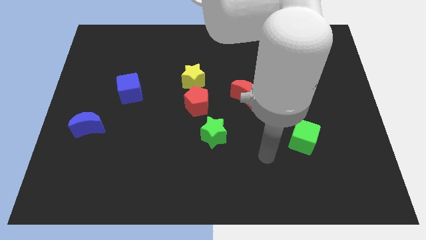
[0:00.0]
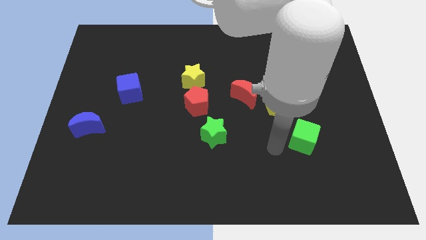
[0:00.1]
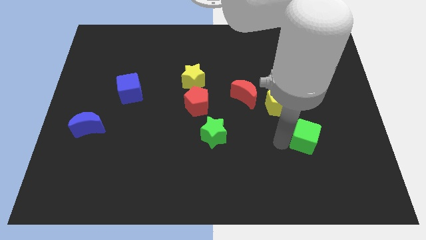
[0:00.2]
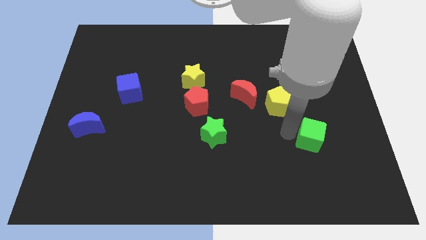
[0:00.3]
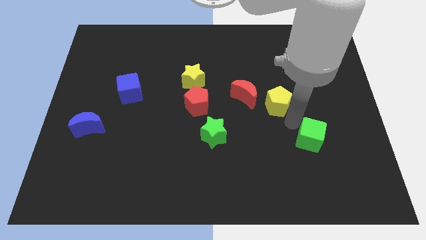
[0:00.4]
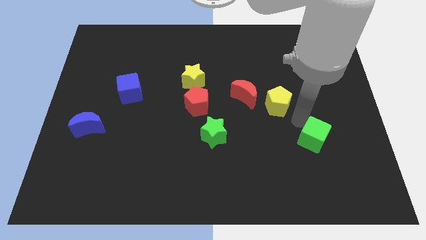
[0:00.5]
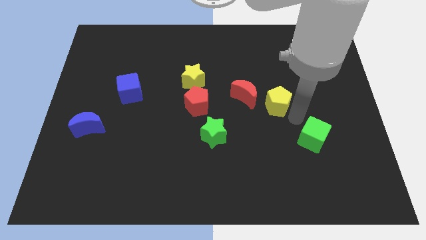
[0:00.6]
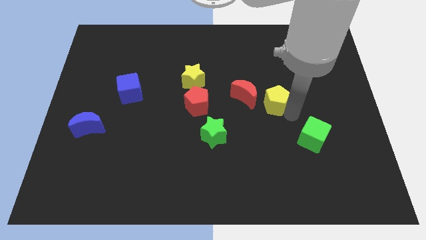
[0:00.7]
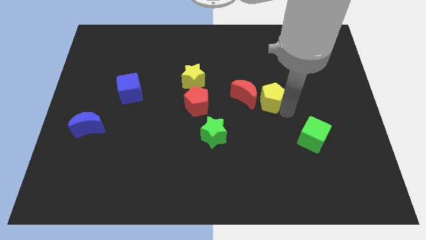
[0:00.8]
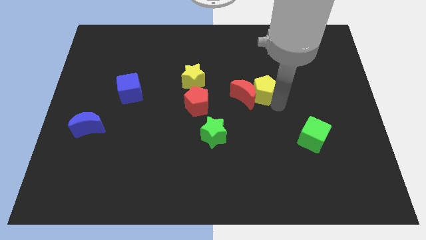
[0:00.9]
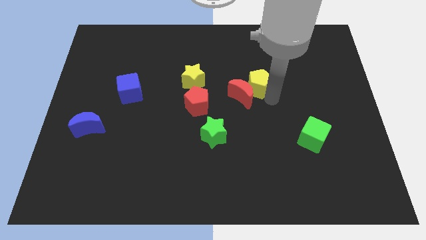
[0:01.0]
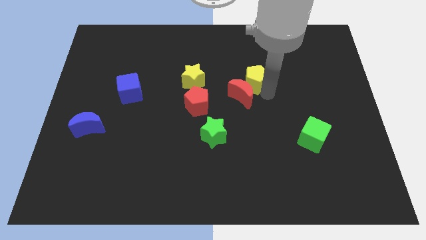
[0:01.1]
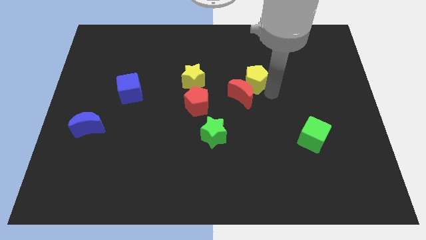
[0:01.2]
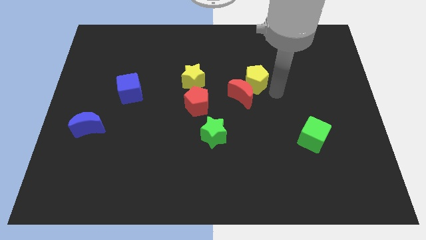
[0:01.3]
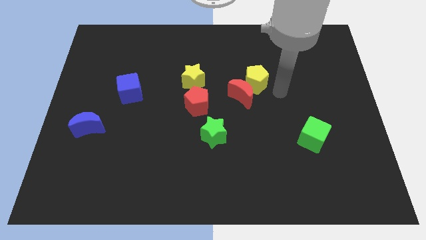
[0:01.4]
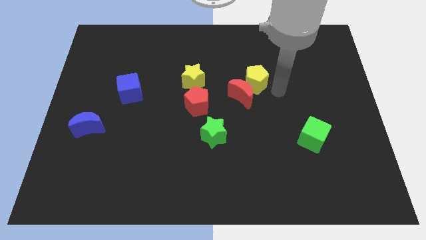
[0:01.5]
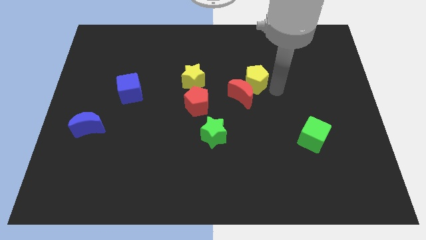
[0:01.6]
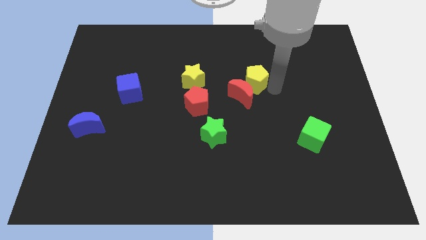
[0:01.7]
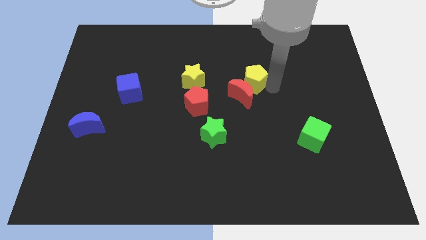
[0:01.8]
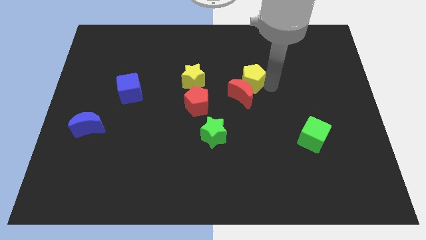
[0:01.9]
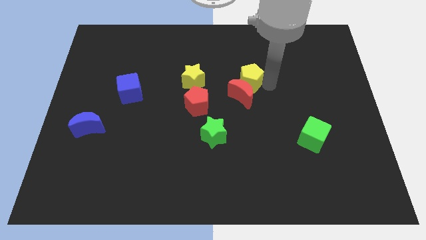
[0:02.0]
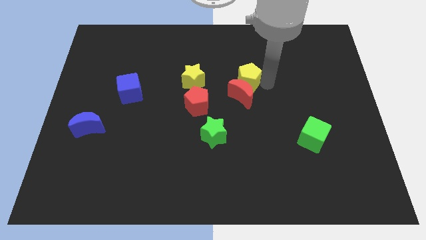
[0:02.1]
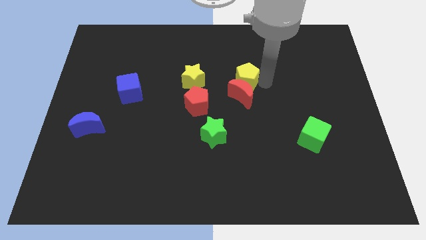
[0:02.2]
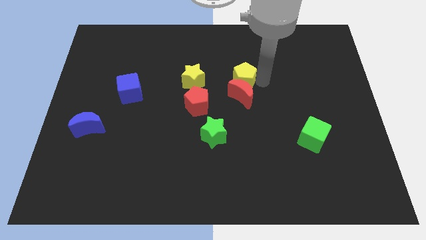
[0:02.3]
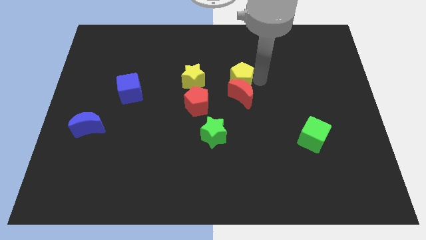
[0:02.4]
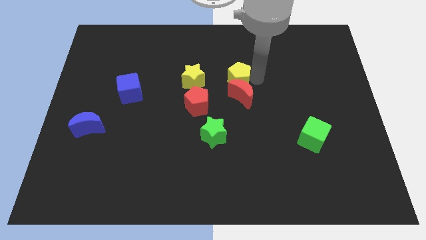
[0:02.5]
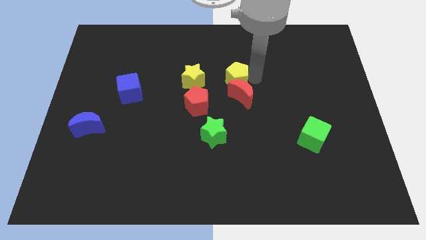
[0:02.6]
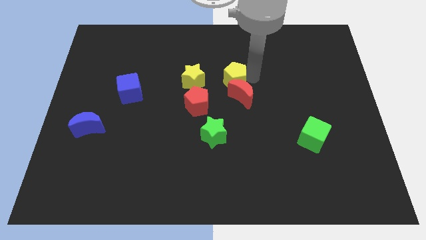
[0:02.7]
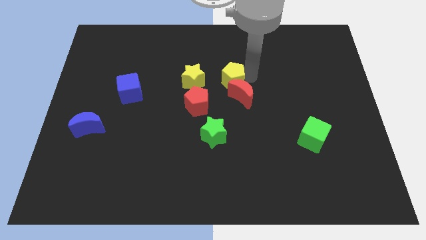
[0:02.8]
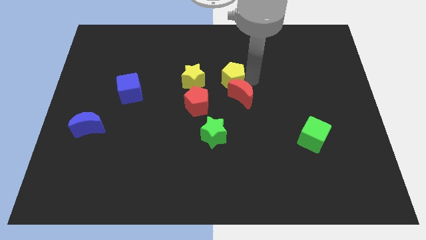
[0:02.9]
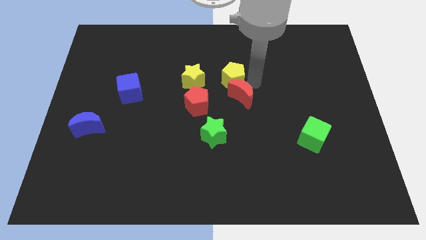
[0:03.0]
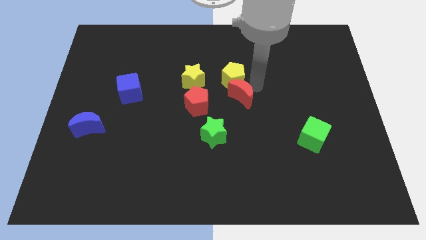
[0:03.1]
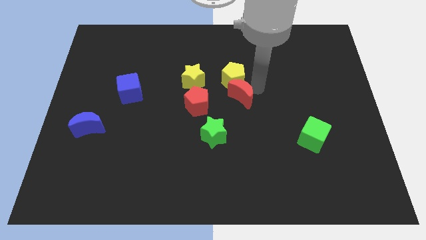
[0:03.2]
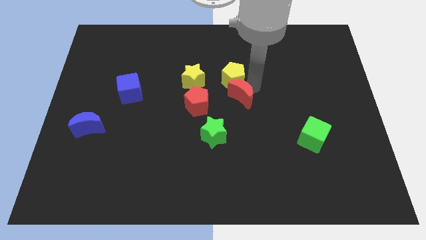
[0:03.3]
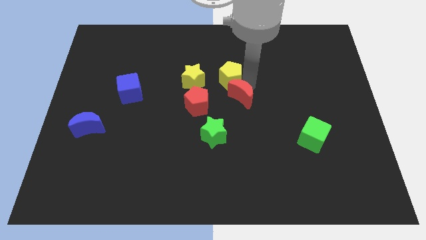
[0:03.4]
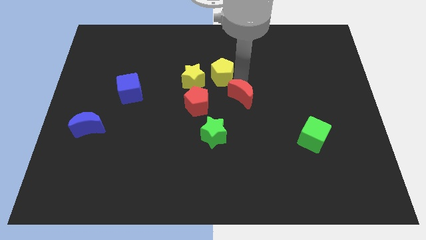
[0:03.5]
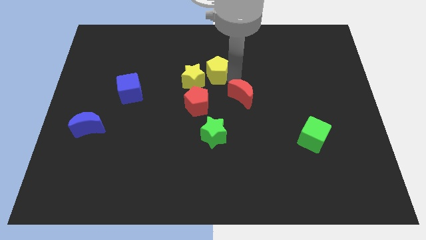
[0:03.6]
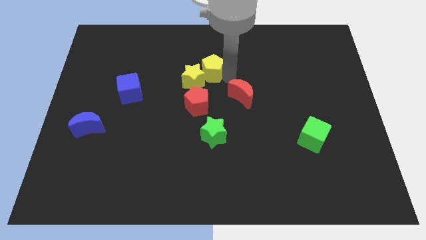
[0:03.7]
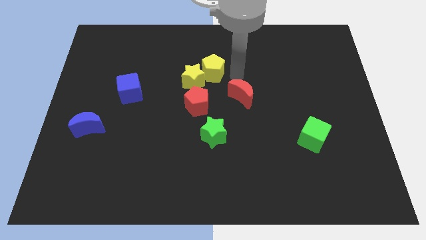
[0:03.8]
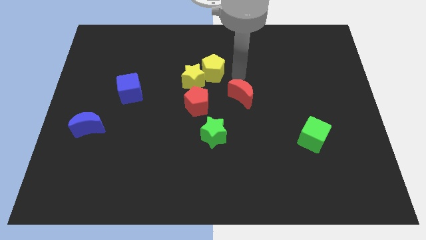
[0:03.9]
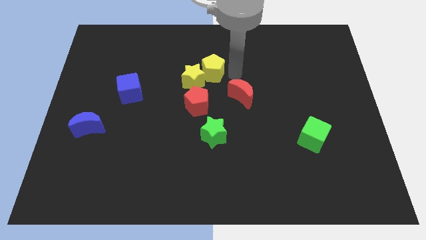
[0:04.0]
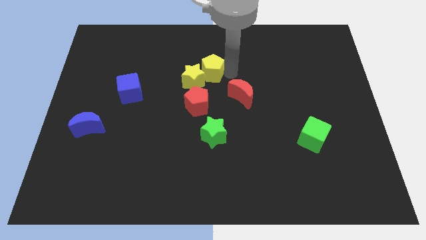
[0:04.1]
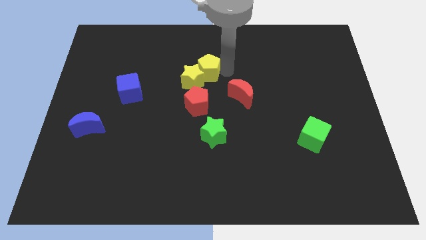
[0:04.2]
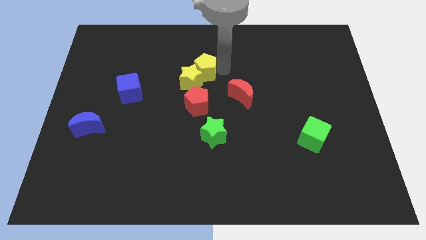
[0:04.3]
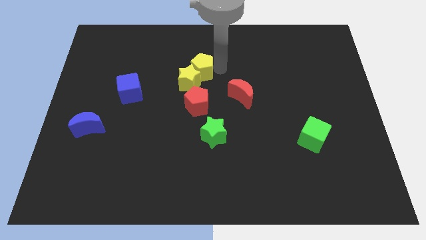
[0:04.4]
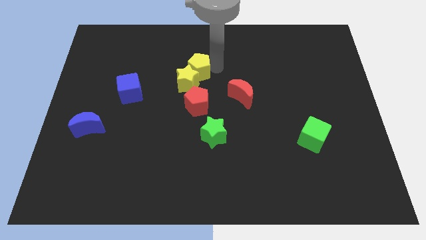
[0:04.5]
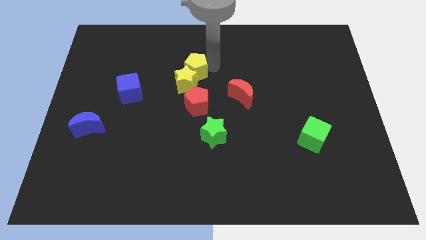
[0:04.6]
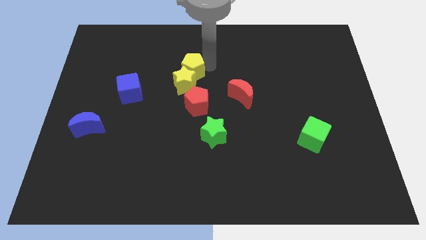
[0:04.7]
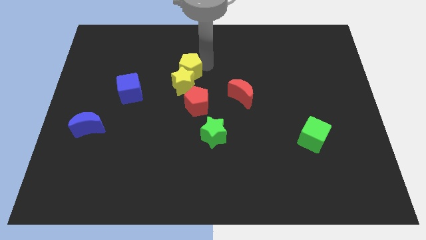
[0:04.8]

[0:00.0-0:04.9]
push the yellow pentagon to the top left of the yellow star

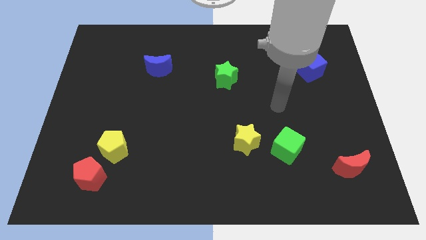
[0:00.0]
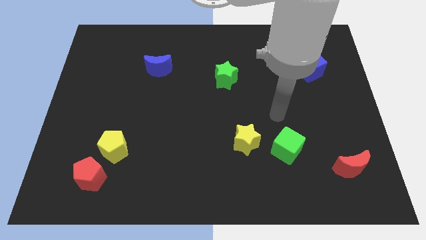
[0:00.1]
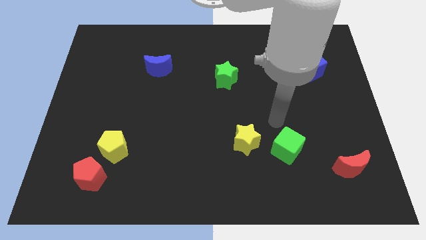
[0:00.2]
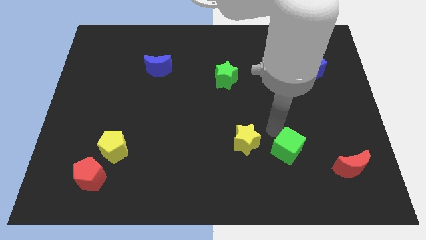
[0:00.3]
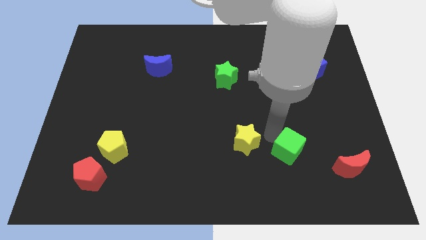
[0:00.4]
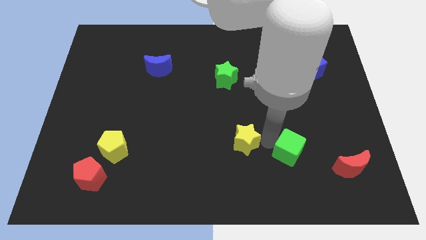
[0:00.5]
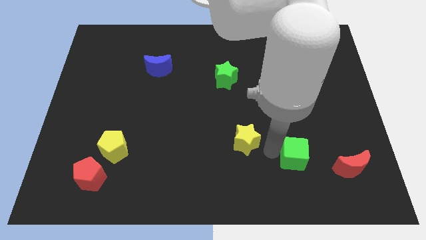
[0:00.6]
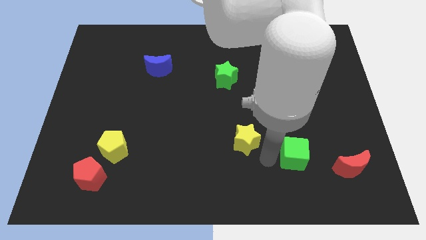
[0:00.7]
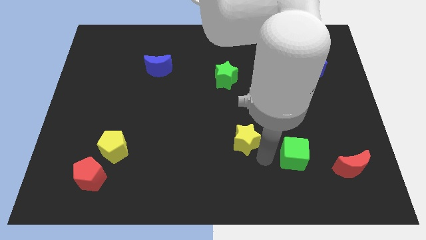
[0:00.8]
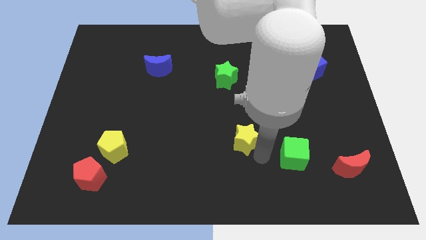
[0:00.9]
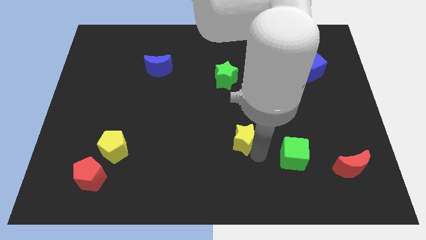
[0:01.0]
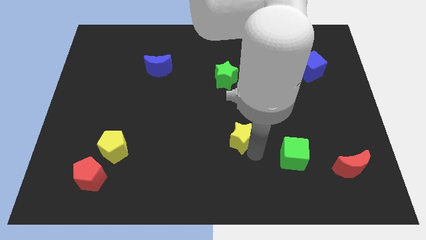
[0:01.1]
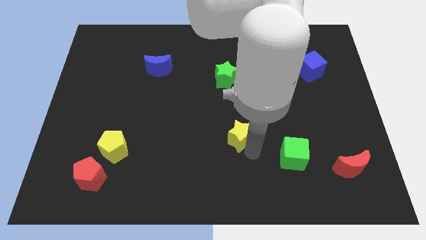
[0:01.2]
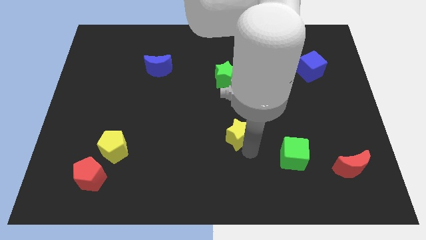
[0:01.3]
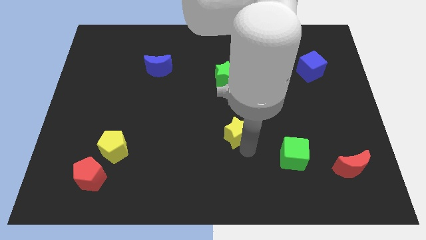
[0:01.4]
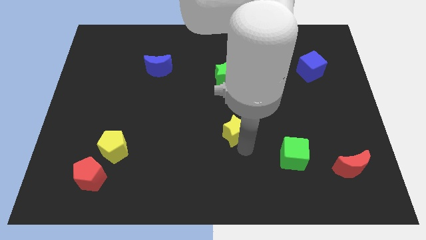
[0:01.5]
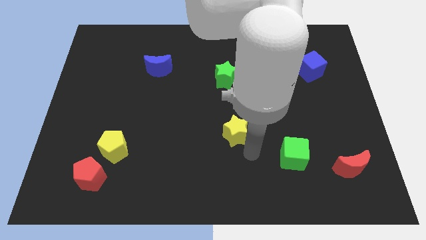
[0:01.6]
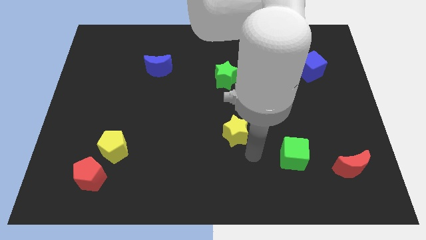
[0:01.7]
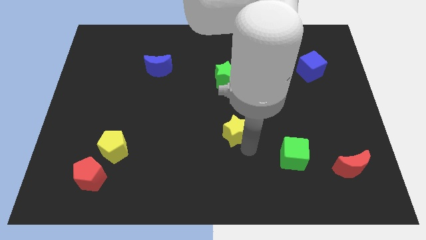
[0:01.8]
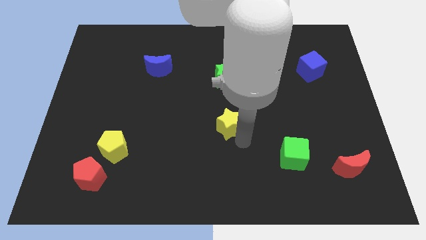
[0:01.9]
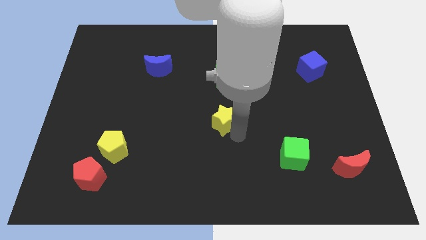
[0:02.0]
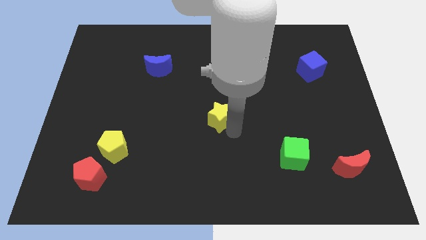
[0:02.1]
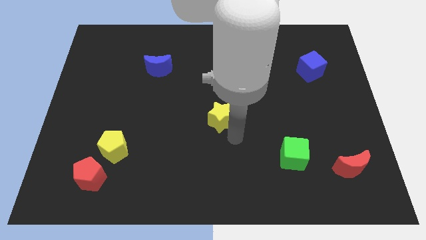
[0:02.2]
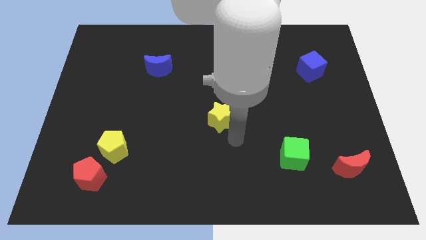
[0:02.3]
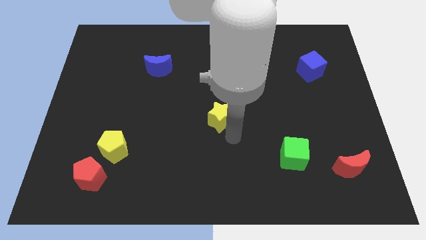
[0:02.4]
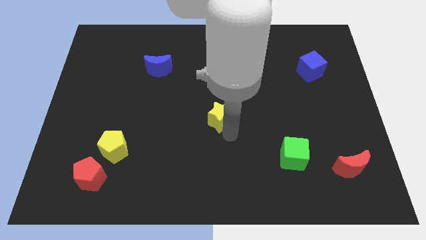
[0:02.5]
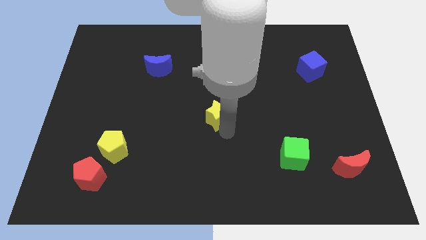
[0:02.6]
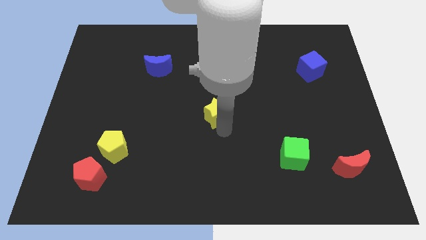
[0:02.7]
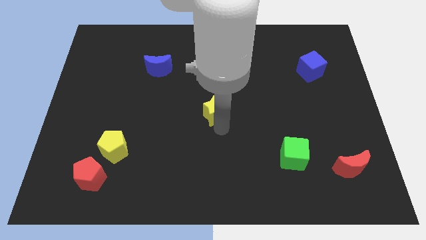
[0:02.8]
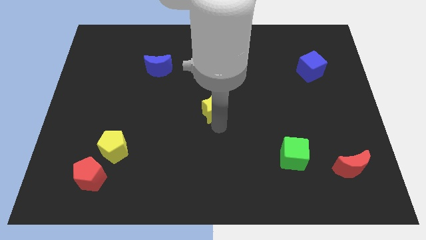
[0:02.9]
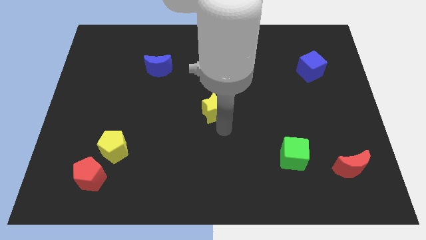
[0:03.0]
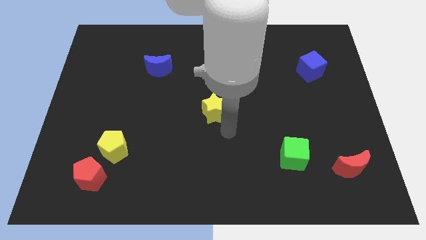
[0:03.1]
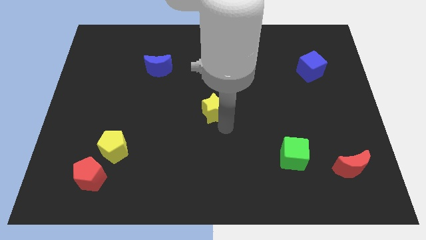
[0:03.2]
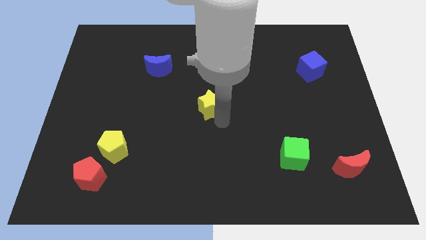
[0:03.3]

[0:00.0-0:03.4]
put the yellow star to the bottom left side of the green star
